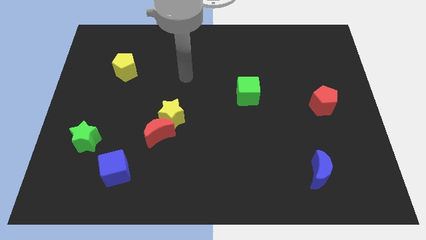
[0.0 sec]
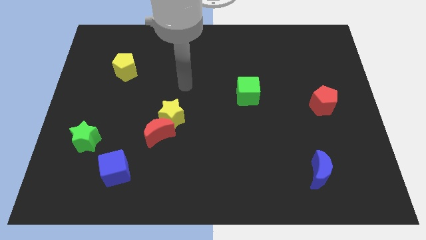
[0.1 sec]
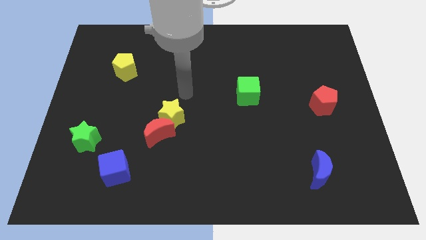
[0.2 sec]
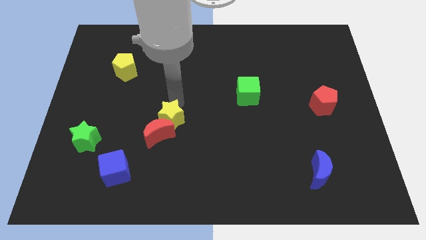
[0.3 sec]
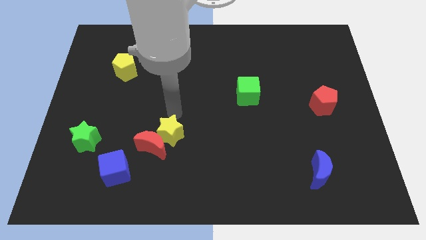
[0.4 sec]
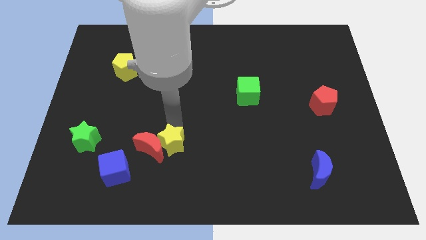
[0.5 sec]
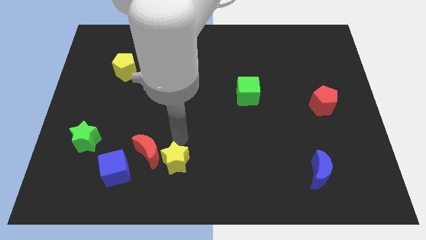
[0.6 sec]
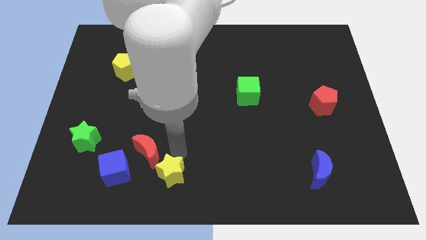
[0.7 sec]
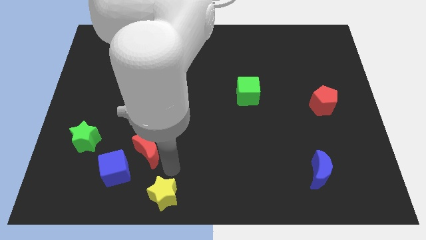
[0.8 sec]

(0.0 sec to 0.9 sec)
separate the red moon from the yellow star

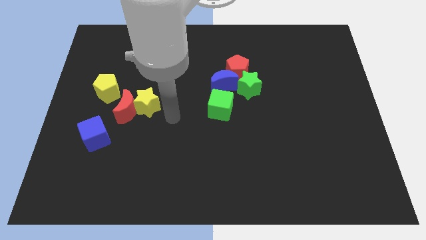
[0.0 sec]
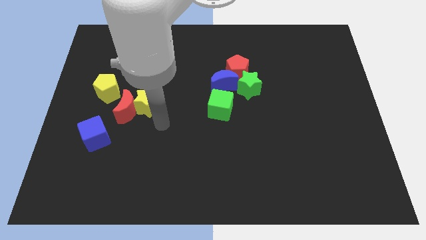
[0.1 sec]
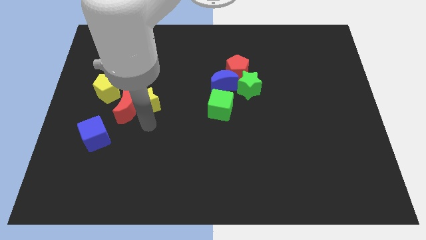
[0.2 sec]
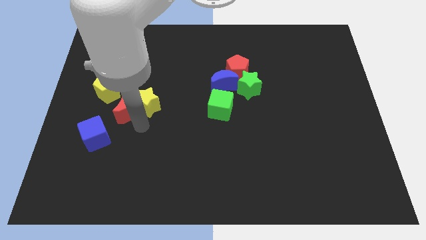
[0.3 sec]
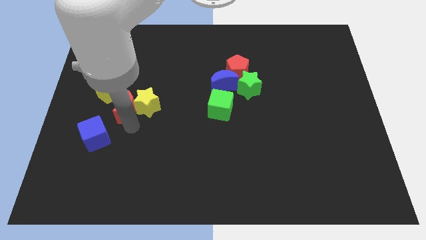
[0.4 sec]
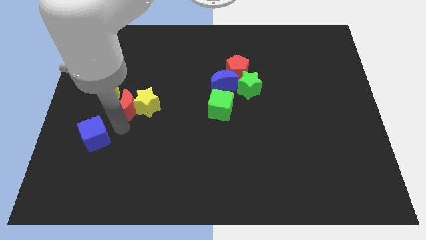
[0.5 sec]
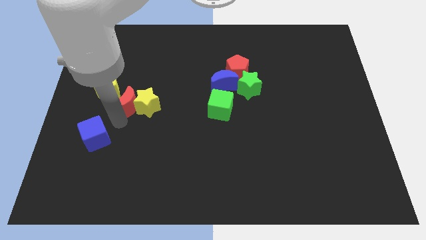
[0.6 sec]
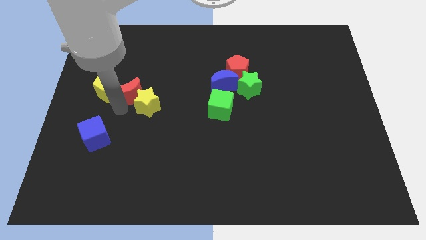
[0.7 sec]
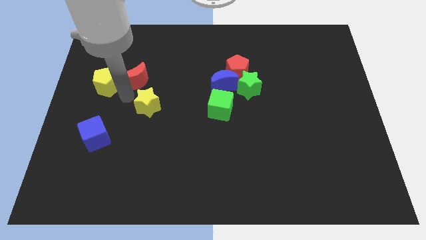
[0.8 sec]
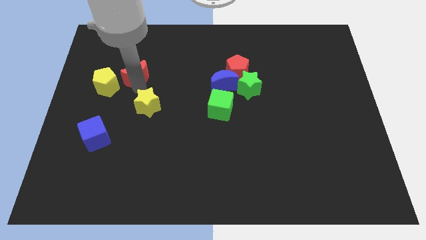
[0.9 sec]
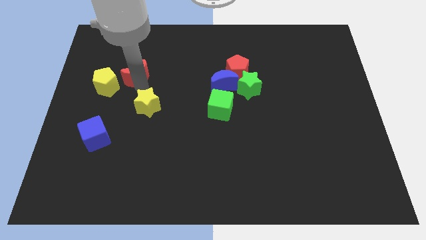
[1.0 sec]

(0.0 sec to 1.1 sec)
separate the yellow star from the red moon

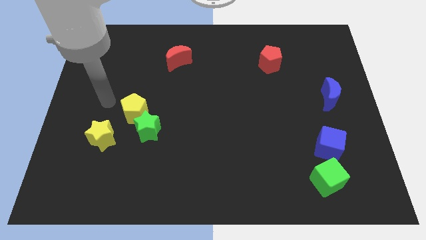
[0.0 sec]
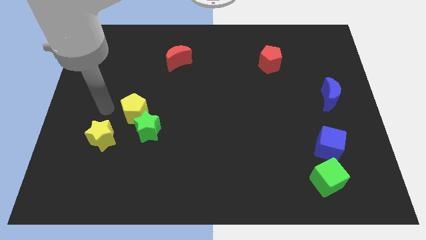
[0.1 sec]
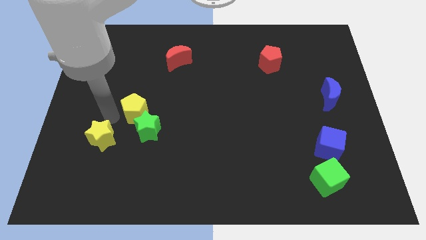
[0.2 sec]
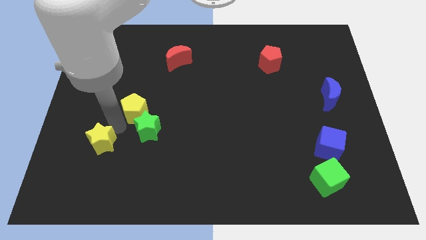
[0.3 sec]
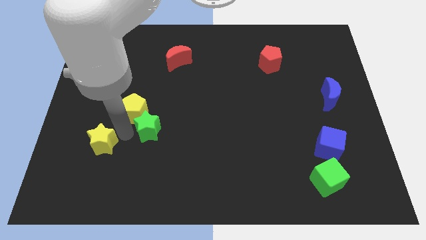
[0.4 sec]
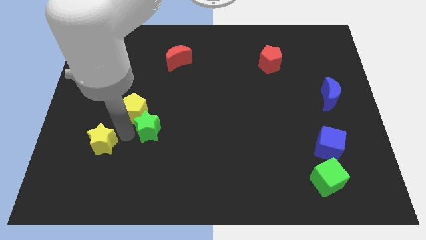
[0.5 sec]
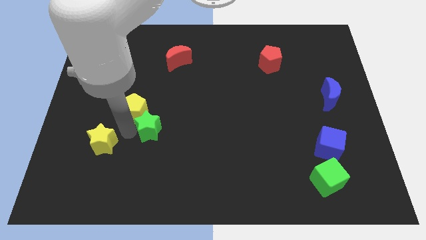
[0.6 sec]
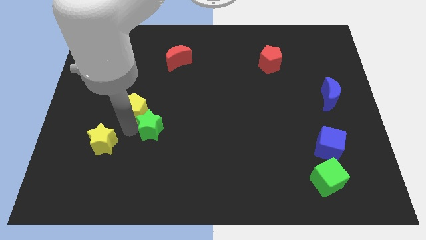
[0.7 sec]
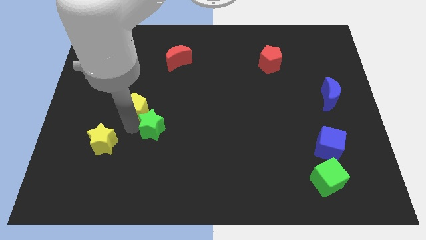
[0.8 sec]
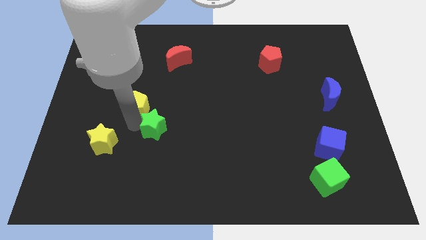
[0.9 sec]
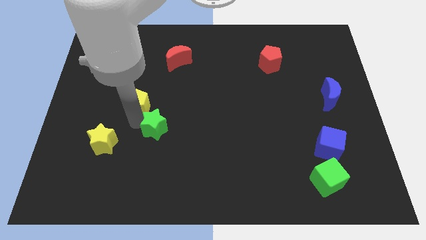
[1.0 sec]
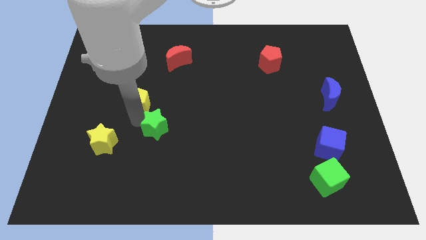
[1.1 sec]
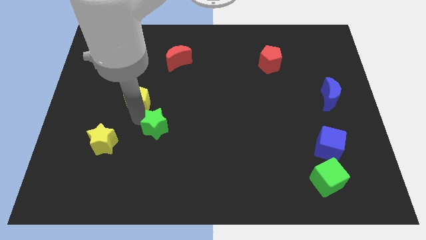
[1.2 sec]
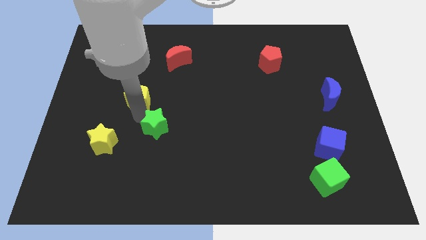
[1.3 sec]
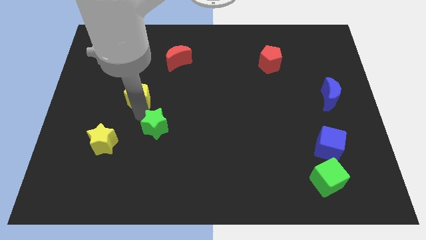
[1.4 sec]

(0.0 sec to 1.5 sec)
move the yellow pentagon away from the green star and yellow star

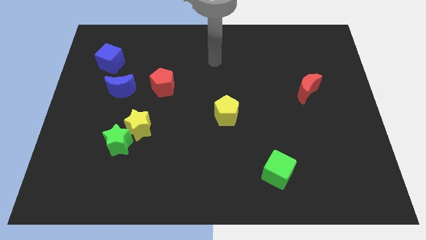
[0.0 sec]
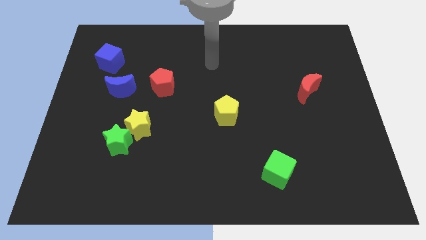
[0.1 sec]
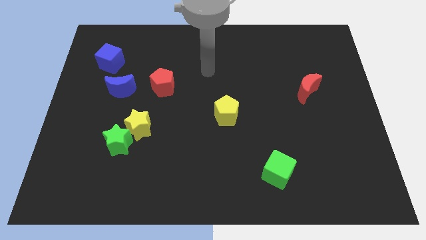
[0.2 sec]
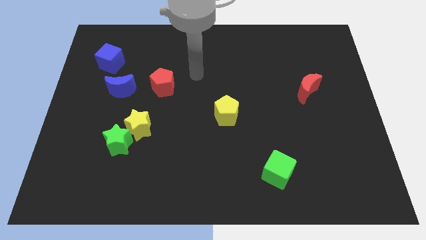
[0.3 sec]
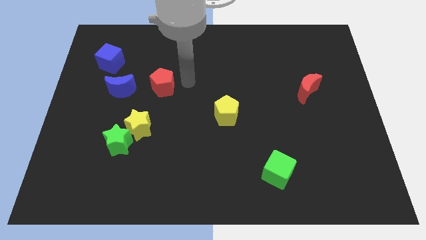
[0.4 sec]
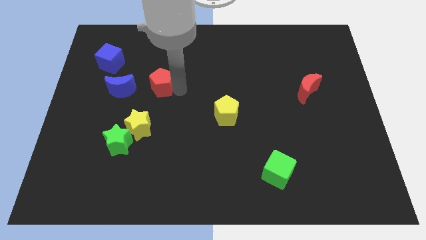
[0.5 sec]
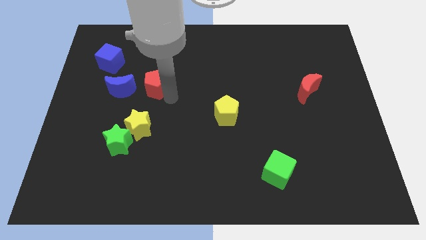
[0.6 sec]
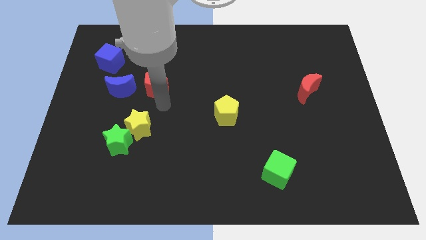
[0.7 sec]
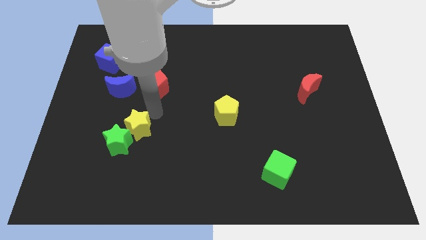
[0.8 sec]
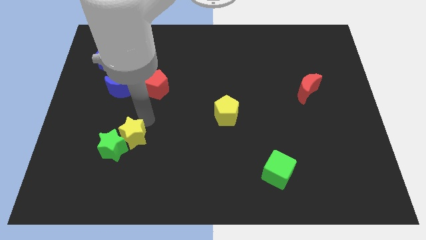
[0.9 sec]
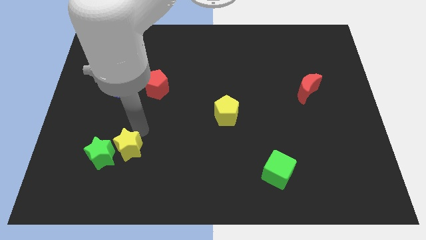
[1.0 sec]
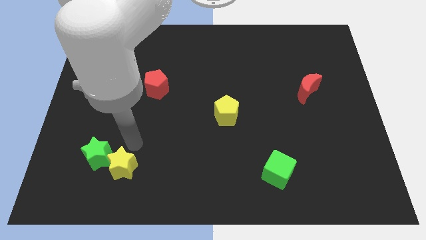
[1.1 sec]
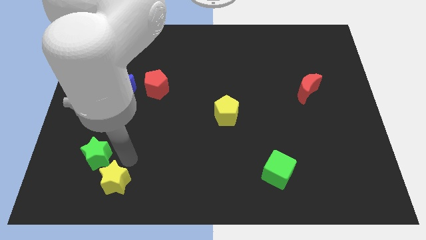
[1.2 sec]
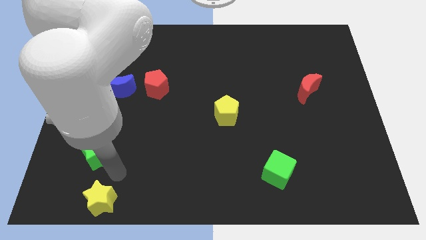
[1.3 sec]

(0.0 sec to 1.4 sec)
move the green star away from the yellow star

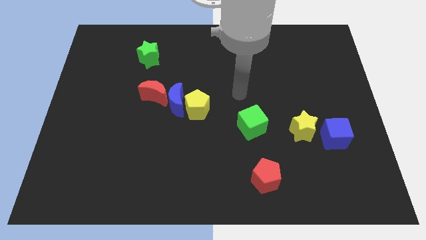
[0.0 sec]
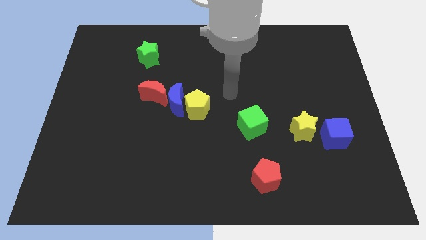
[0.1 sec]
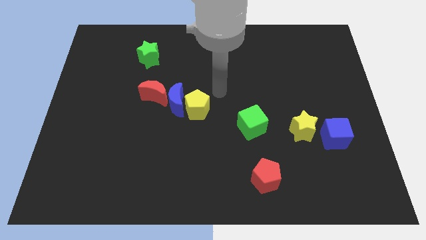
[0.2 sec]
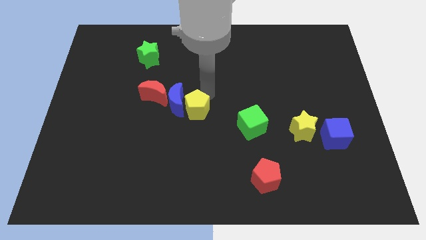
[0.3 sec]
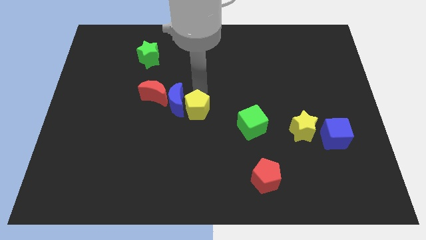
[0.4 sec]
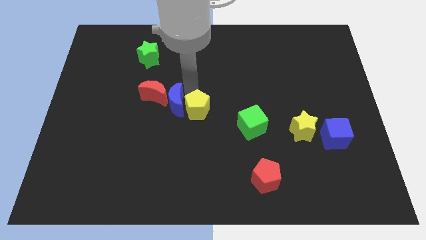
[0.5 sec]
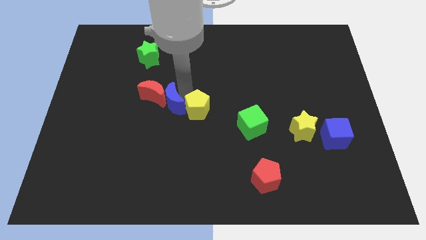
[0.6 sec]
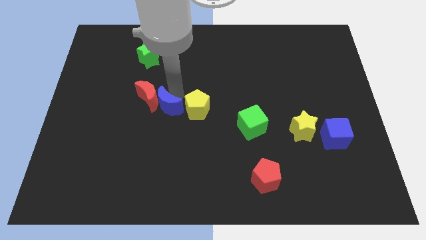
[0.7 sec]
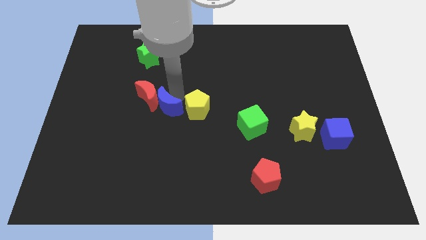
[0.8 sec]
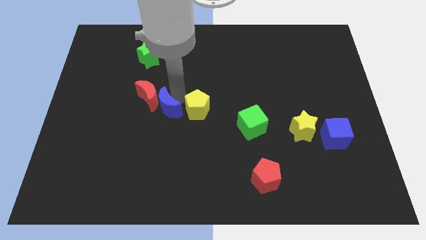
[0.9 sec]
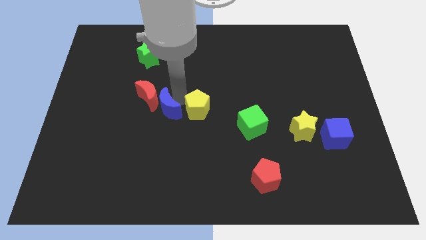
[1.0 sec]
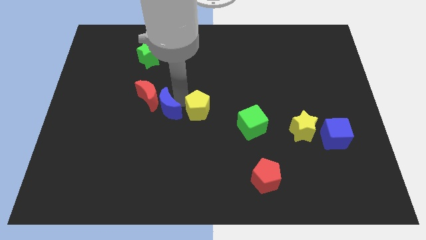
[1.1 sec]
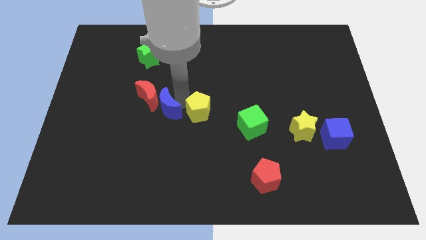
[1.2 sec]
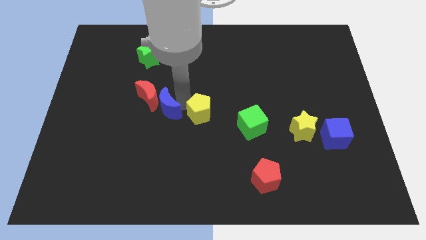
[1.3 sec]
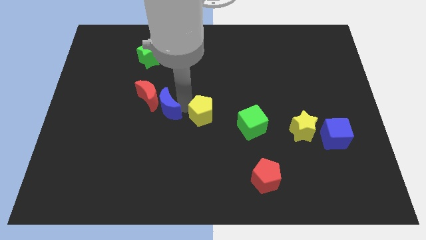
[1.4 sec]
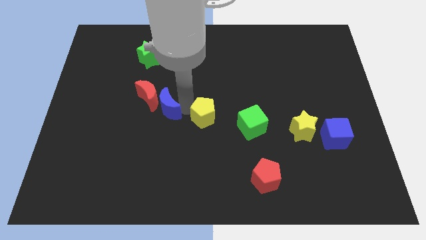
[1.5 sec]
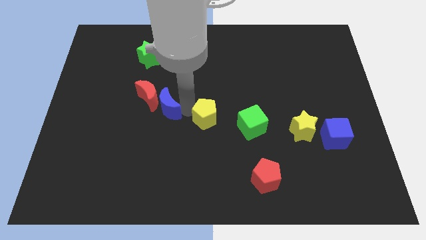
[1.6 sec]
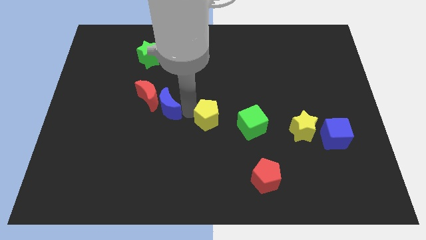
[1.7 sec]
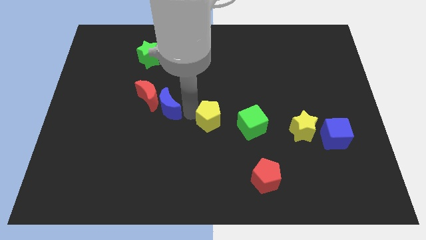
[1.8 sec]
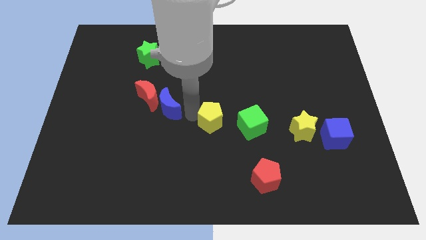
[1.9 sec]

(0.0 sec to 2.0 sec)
move the yellow pentagon away from the blue moon

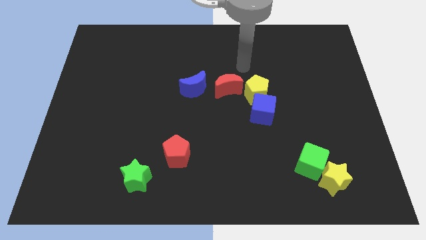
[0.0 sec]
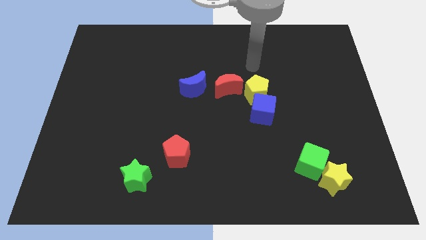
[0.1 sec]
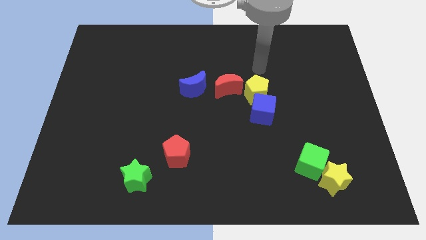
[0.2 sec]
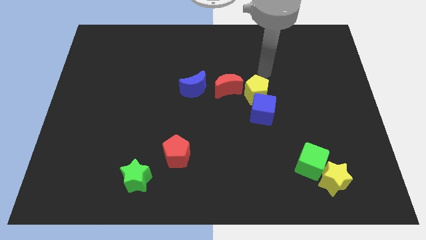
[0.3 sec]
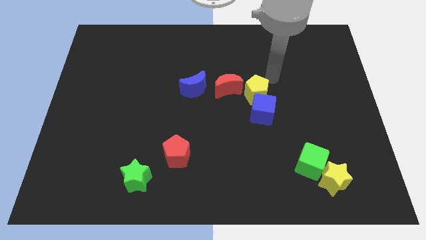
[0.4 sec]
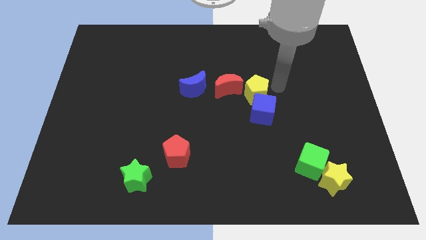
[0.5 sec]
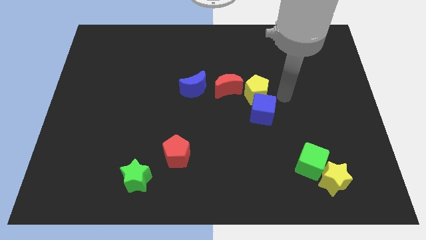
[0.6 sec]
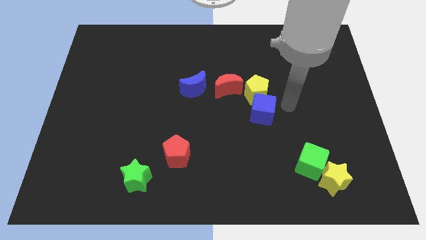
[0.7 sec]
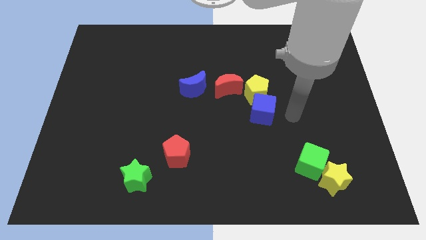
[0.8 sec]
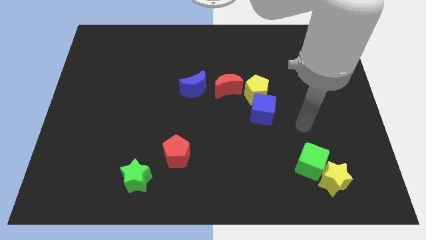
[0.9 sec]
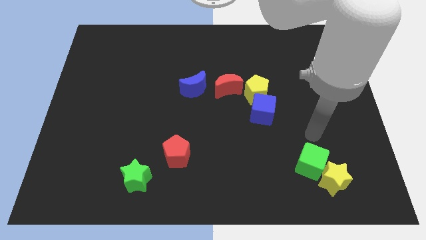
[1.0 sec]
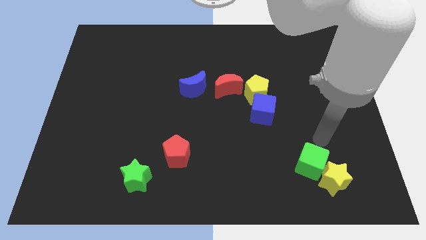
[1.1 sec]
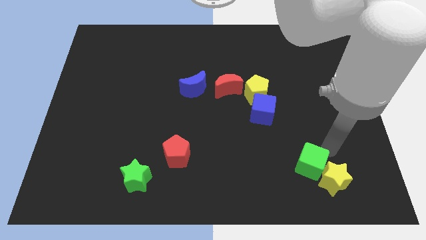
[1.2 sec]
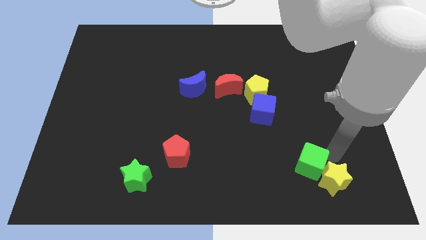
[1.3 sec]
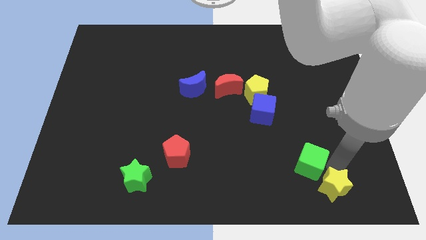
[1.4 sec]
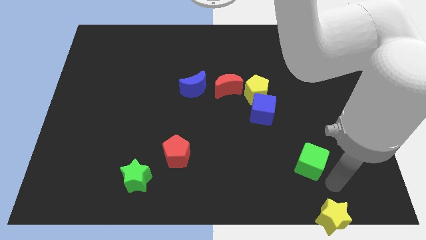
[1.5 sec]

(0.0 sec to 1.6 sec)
separate the green cube from the yellow star

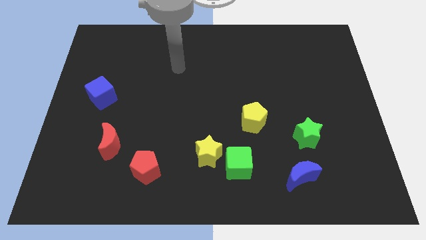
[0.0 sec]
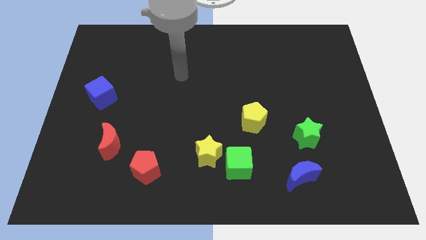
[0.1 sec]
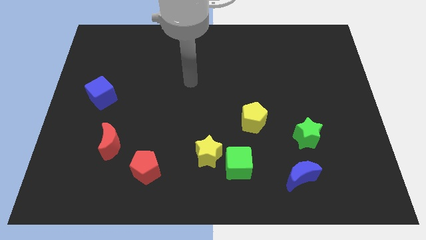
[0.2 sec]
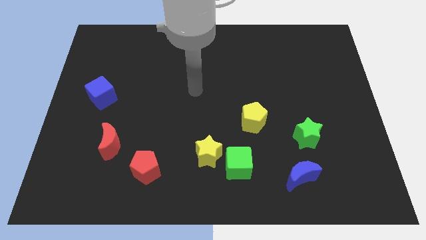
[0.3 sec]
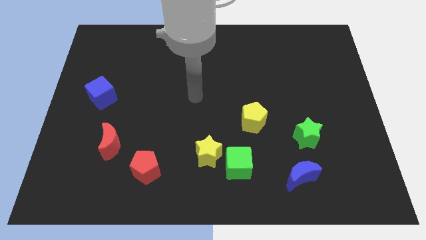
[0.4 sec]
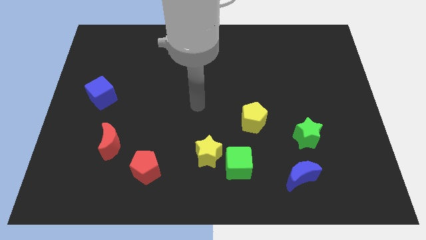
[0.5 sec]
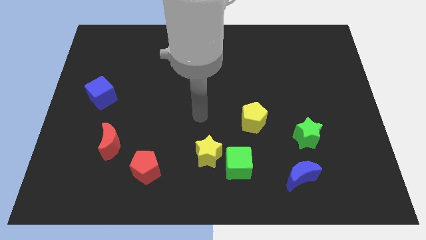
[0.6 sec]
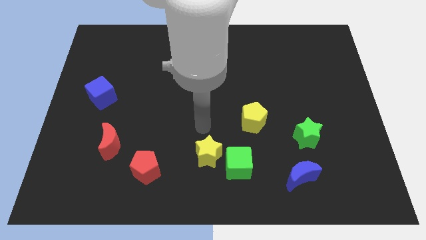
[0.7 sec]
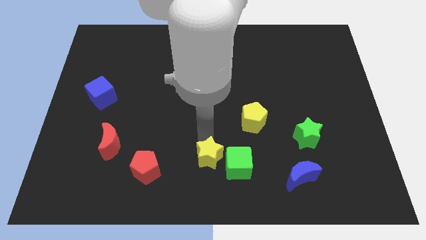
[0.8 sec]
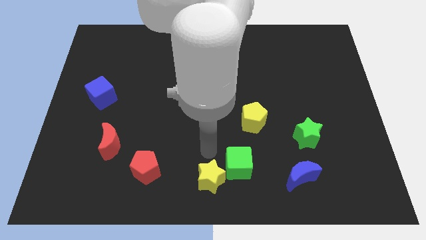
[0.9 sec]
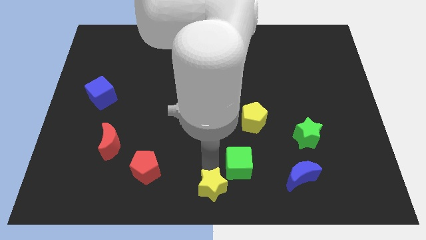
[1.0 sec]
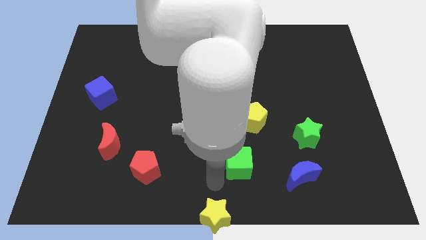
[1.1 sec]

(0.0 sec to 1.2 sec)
pull the green cube apart from the yellow star
